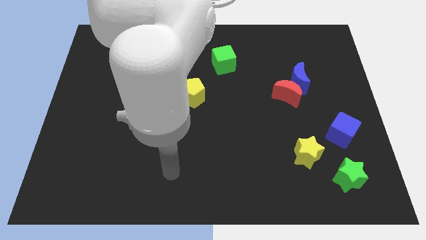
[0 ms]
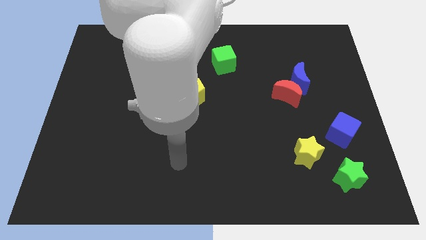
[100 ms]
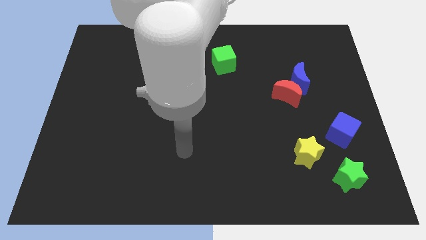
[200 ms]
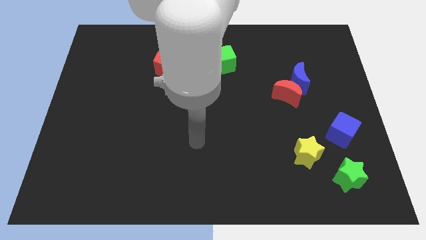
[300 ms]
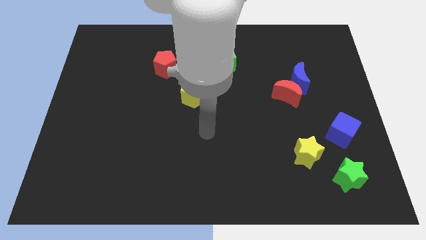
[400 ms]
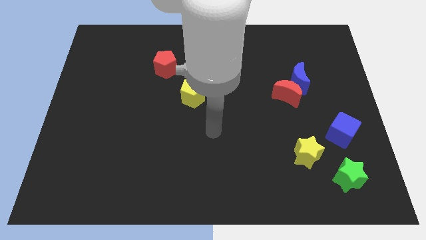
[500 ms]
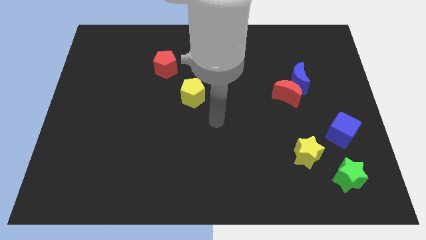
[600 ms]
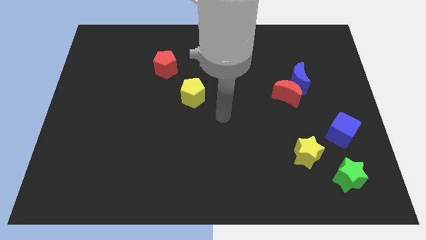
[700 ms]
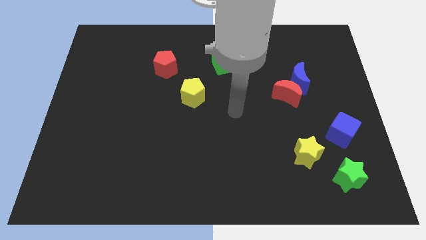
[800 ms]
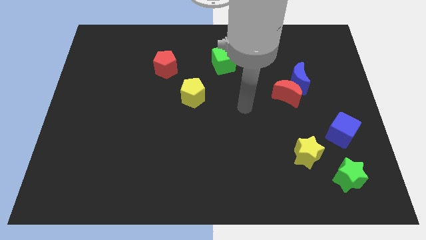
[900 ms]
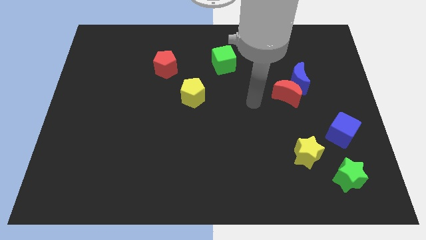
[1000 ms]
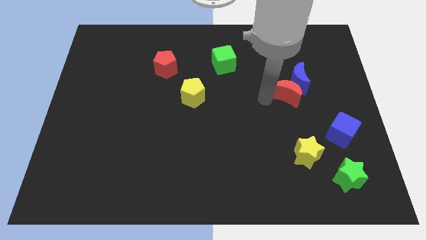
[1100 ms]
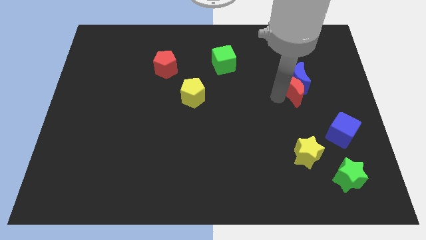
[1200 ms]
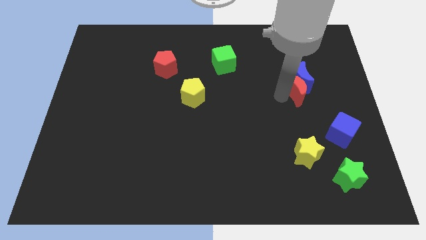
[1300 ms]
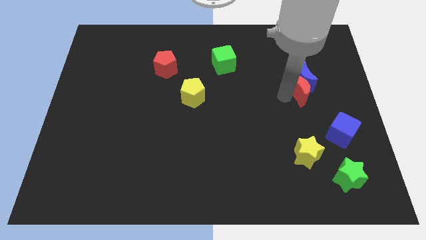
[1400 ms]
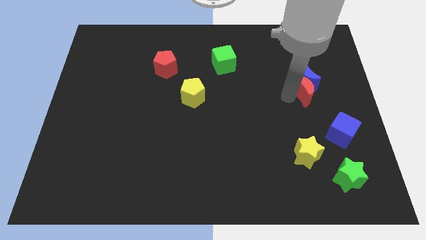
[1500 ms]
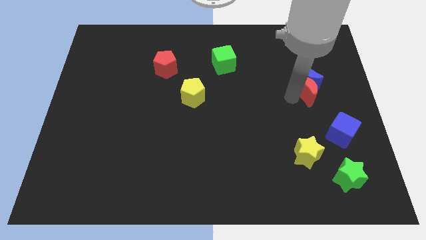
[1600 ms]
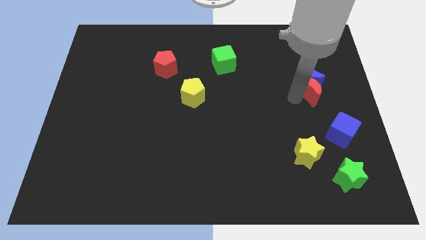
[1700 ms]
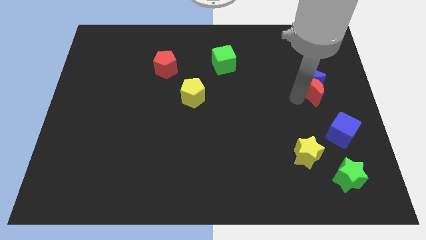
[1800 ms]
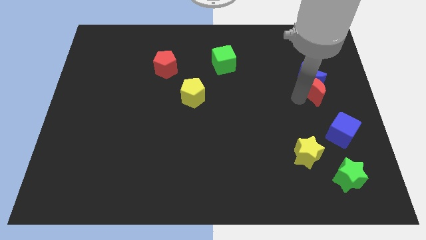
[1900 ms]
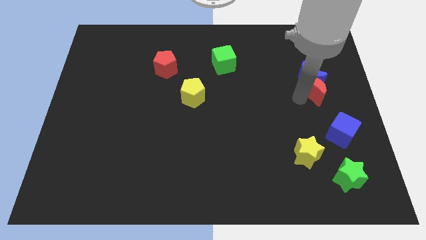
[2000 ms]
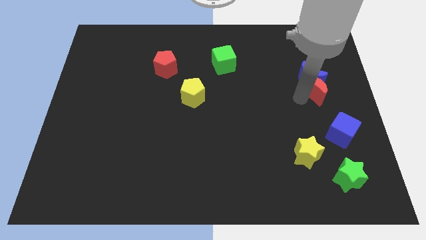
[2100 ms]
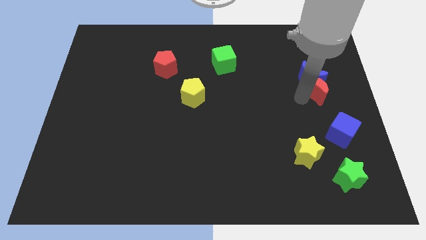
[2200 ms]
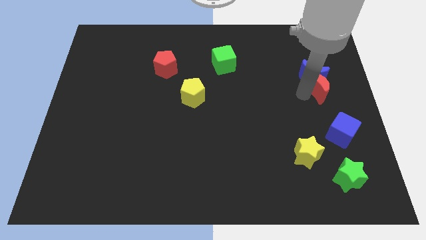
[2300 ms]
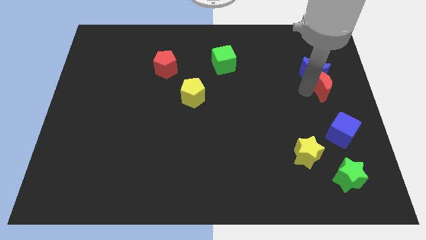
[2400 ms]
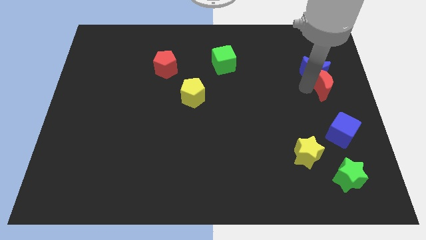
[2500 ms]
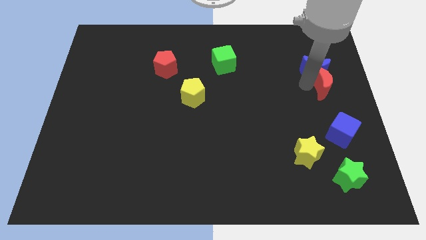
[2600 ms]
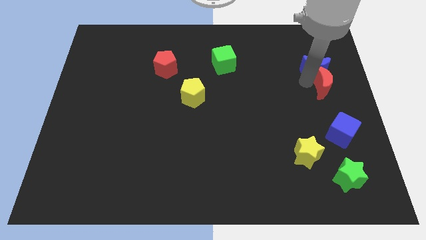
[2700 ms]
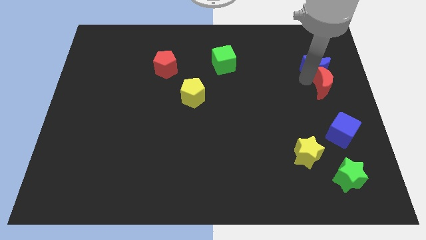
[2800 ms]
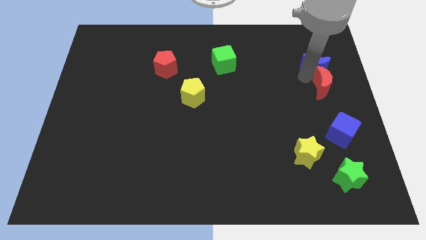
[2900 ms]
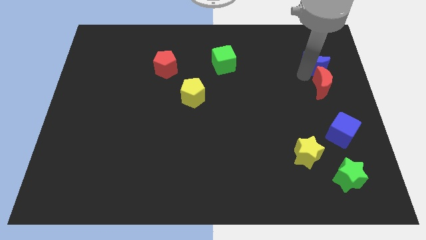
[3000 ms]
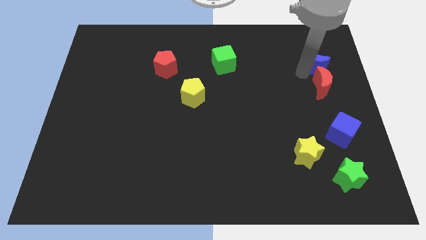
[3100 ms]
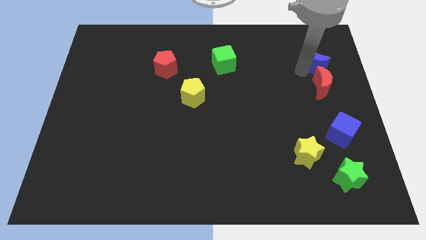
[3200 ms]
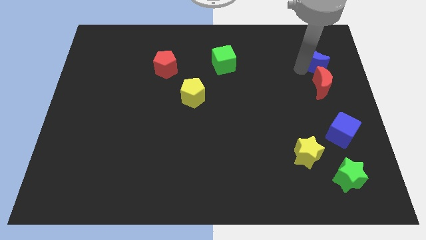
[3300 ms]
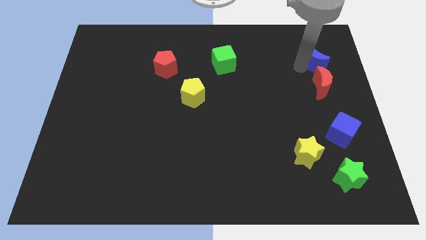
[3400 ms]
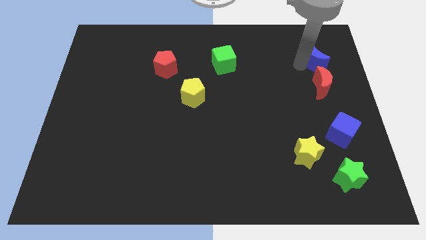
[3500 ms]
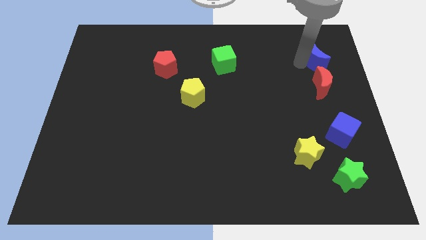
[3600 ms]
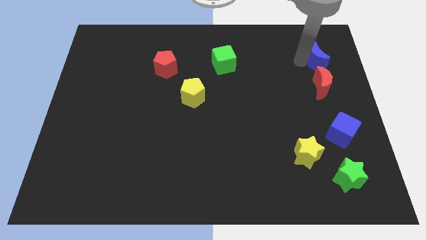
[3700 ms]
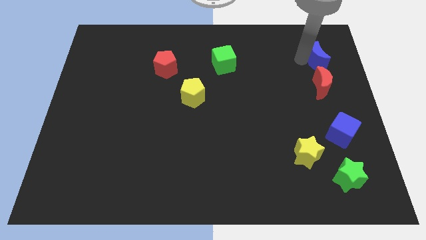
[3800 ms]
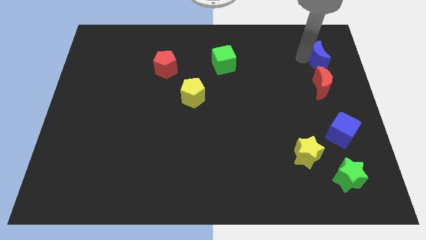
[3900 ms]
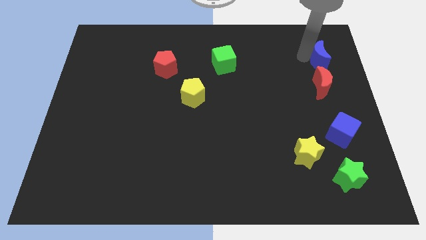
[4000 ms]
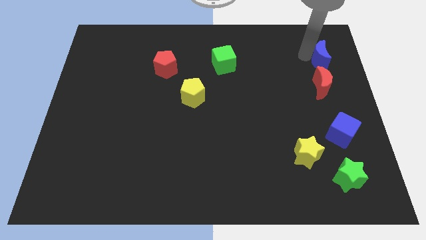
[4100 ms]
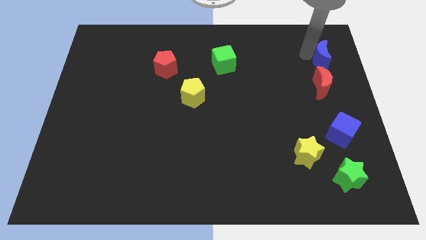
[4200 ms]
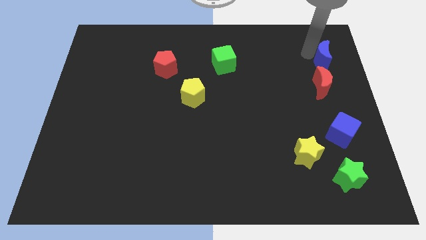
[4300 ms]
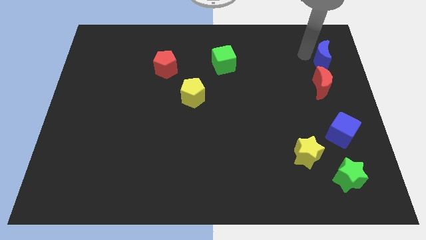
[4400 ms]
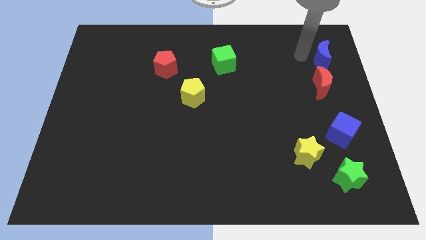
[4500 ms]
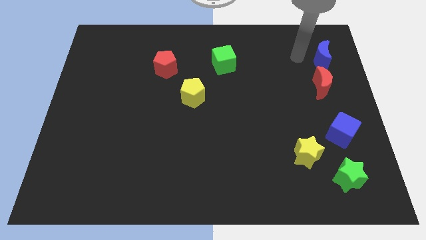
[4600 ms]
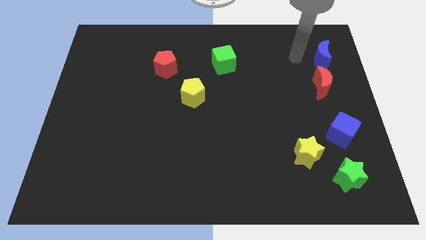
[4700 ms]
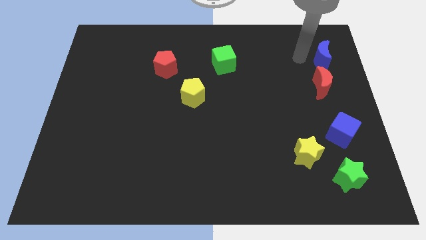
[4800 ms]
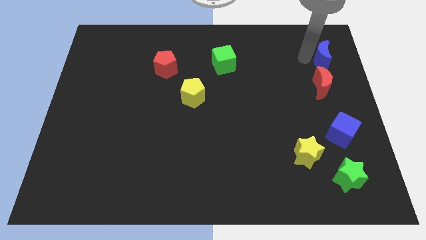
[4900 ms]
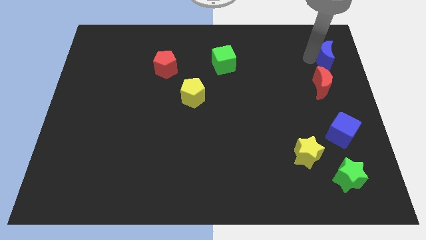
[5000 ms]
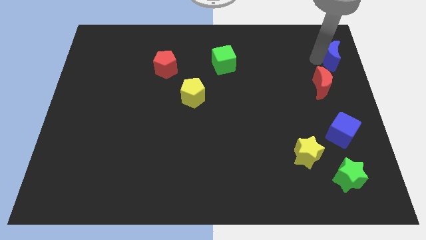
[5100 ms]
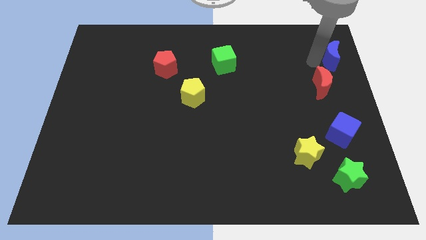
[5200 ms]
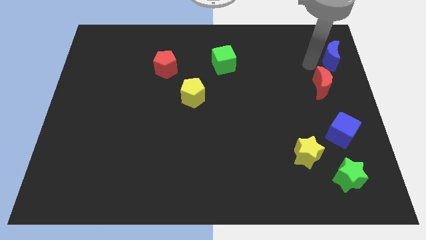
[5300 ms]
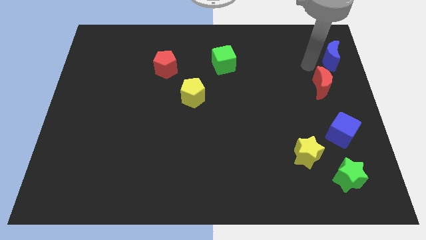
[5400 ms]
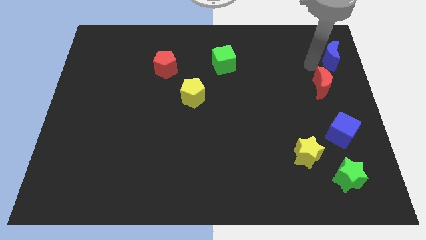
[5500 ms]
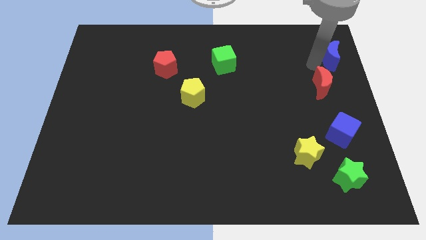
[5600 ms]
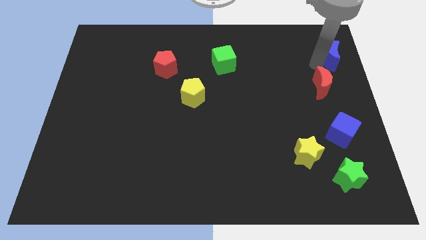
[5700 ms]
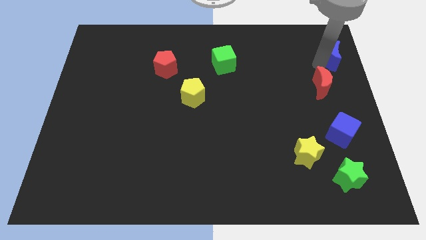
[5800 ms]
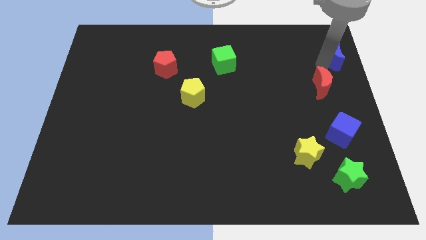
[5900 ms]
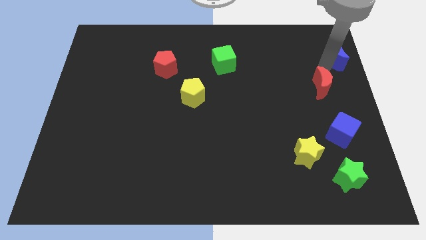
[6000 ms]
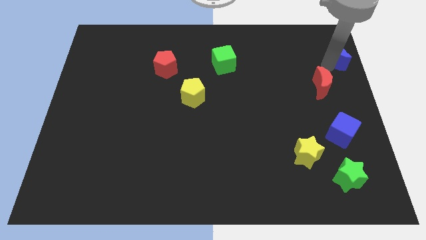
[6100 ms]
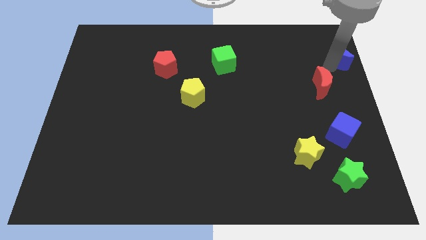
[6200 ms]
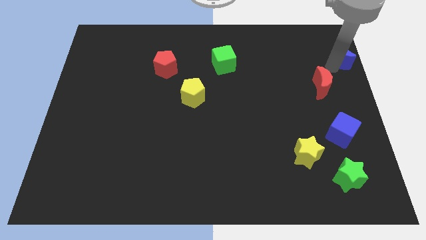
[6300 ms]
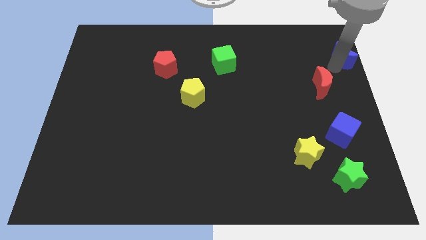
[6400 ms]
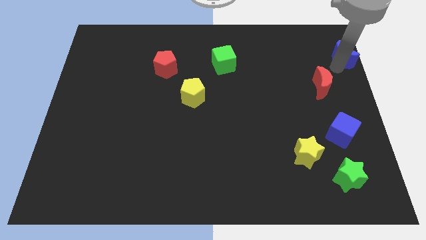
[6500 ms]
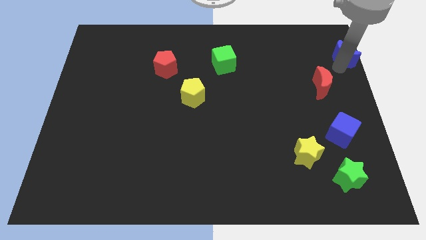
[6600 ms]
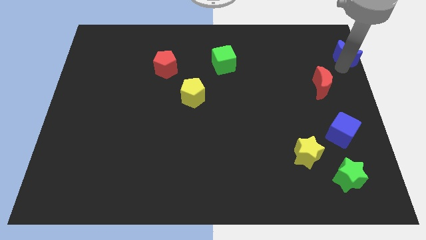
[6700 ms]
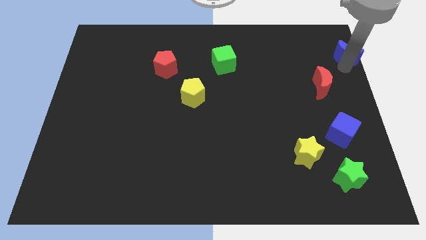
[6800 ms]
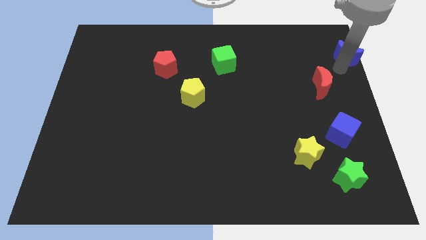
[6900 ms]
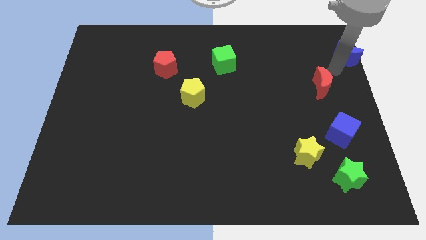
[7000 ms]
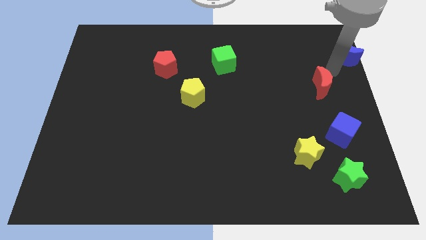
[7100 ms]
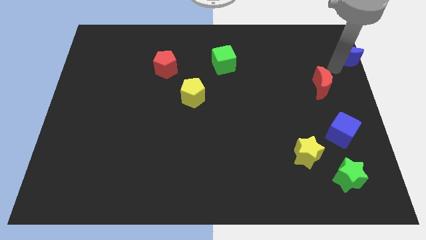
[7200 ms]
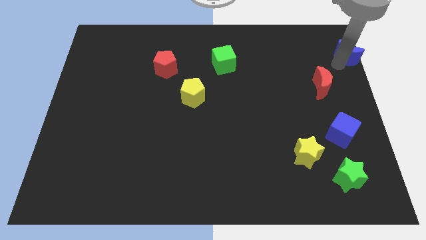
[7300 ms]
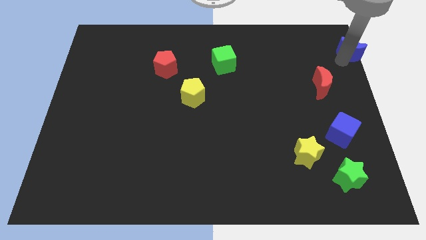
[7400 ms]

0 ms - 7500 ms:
put the blue moon to the top right
